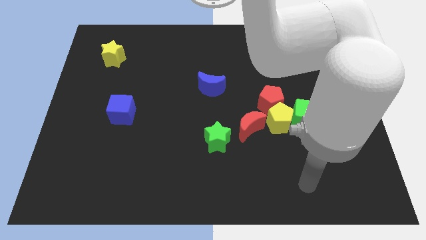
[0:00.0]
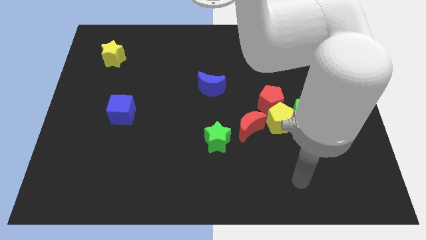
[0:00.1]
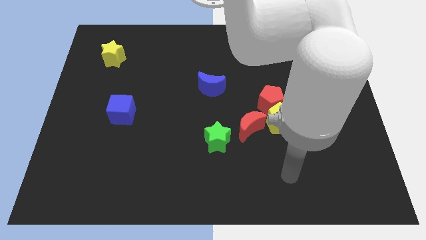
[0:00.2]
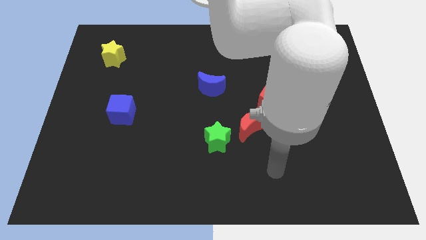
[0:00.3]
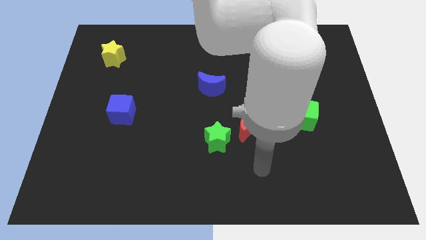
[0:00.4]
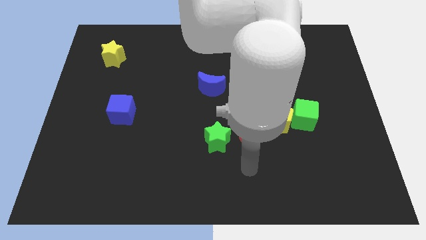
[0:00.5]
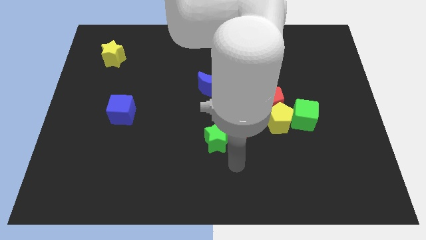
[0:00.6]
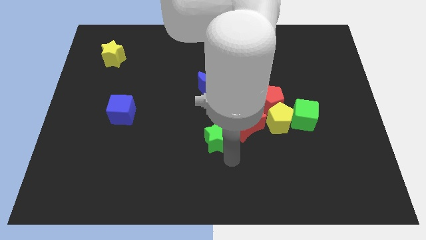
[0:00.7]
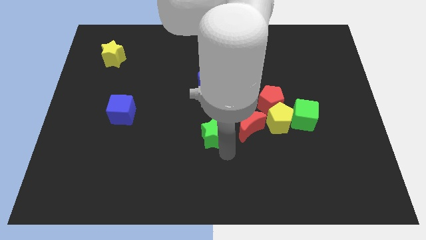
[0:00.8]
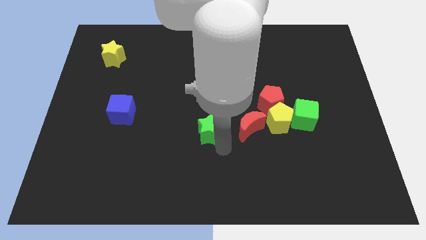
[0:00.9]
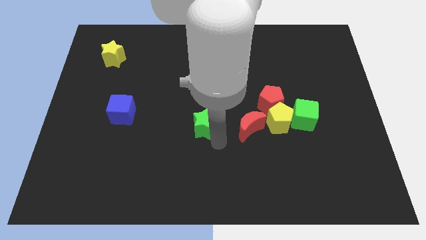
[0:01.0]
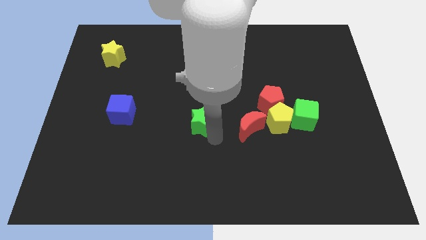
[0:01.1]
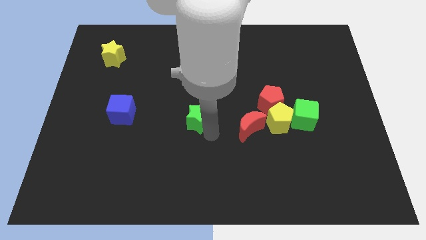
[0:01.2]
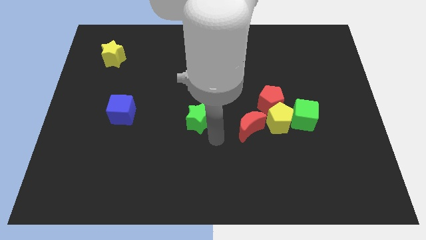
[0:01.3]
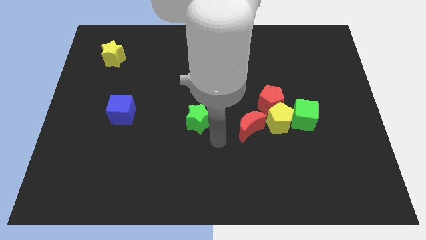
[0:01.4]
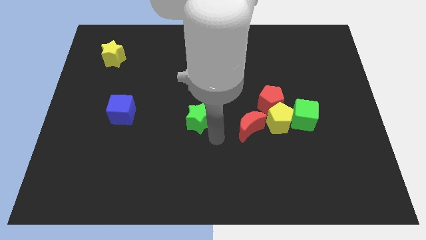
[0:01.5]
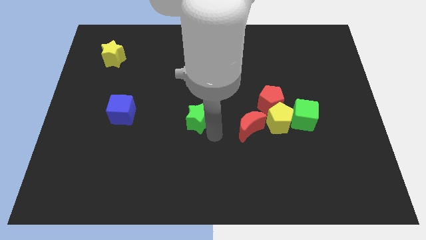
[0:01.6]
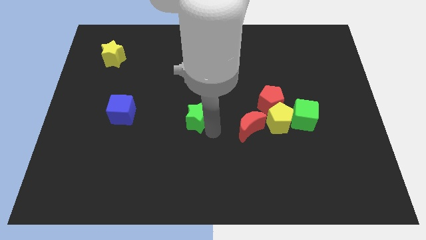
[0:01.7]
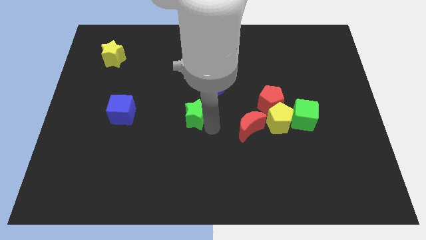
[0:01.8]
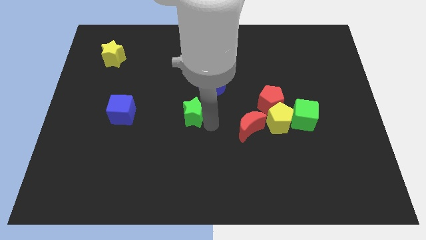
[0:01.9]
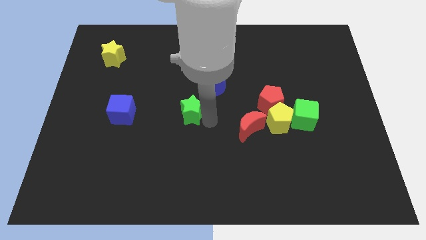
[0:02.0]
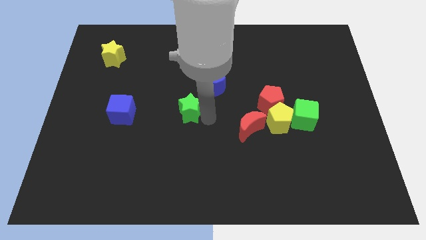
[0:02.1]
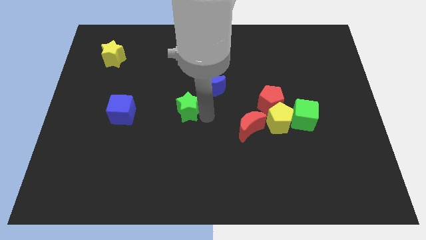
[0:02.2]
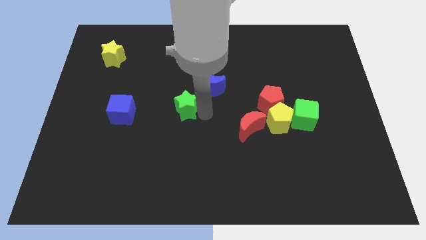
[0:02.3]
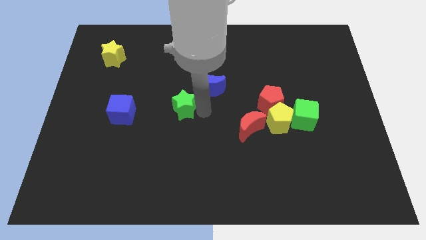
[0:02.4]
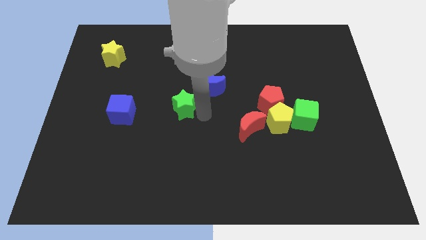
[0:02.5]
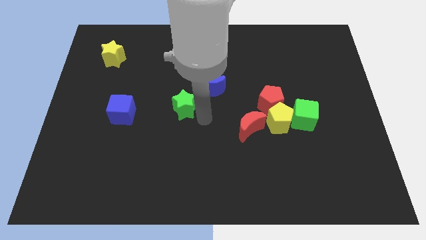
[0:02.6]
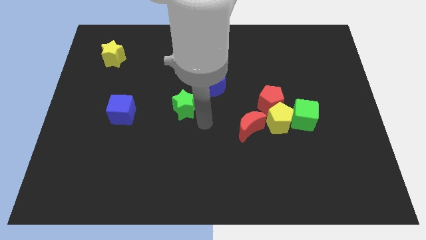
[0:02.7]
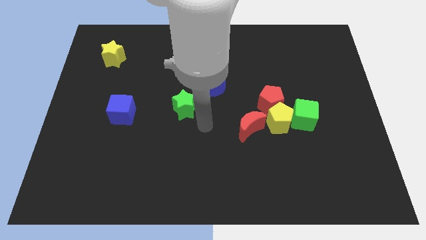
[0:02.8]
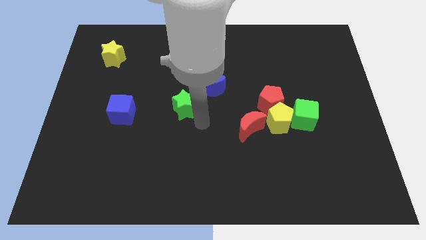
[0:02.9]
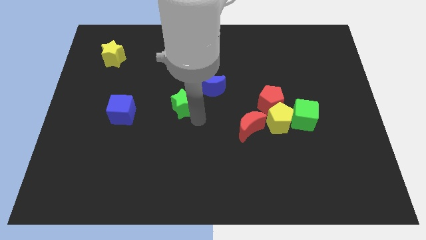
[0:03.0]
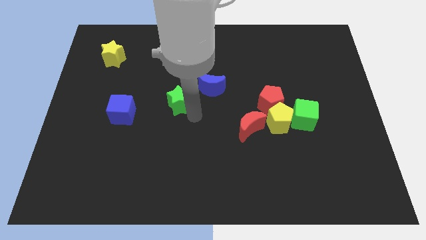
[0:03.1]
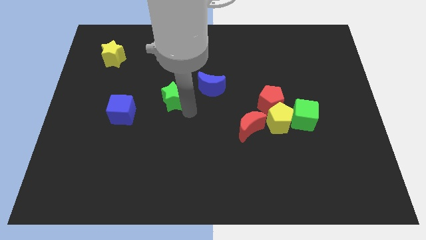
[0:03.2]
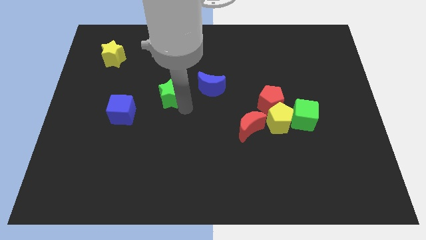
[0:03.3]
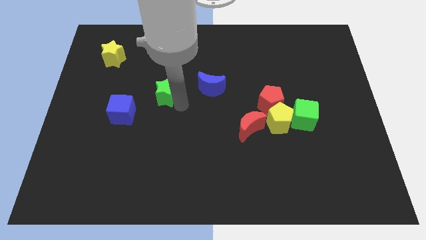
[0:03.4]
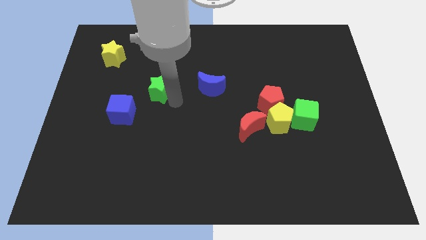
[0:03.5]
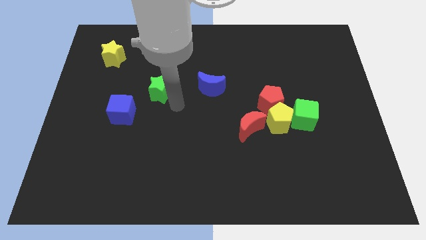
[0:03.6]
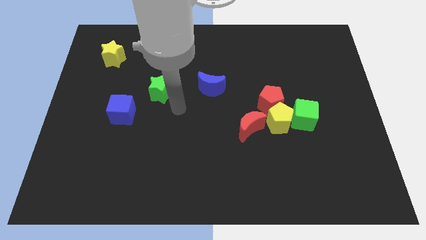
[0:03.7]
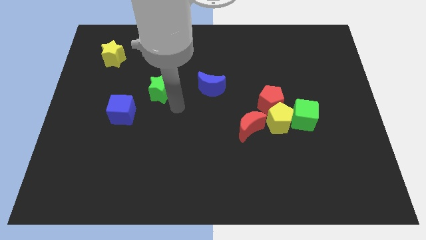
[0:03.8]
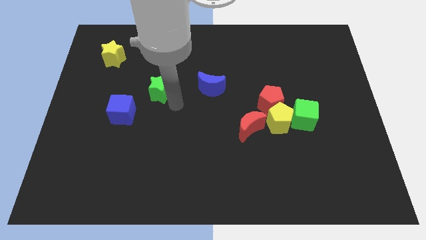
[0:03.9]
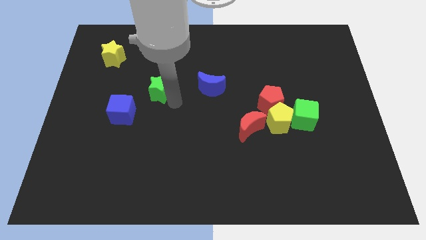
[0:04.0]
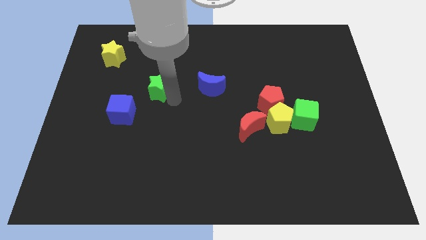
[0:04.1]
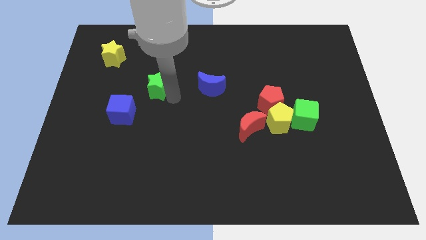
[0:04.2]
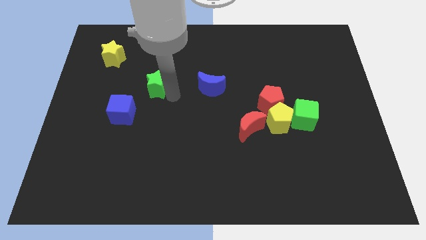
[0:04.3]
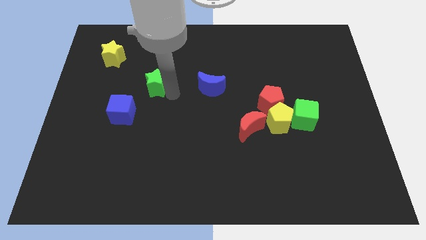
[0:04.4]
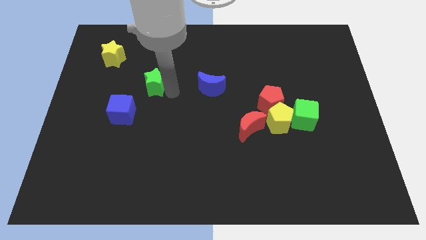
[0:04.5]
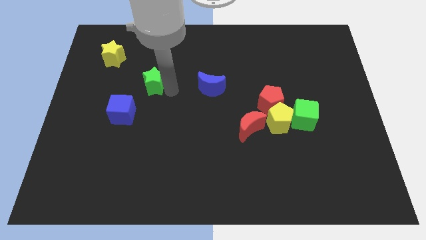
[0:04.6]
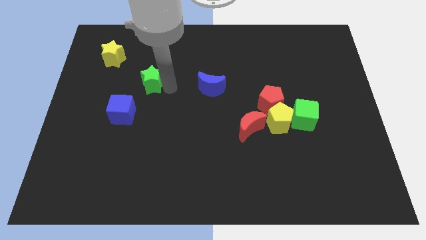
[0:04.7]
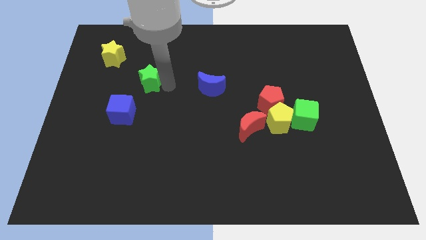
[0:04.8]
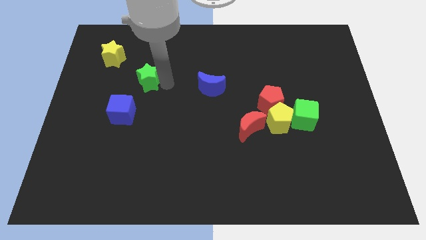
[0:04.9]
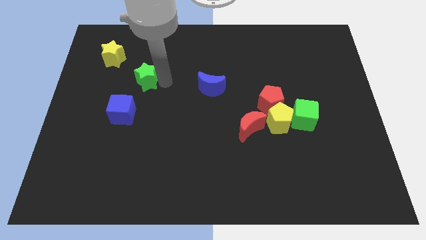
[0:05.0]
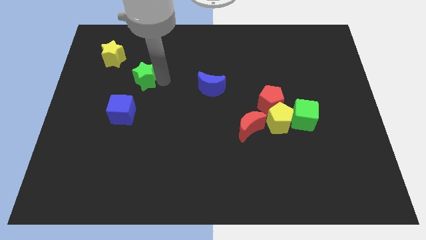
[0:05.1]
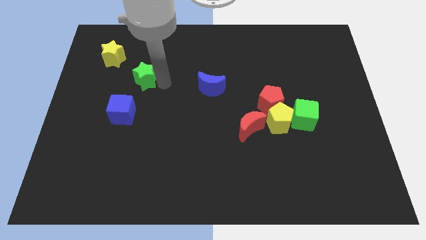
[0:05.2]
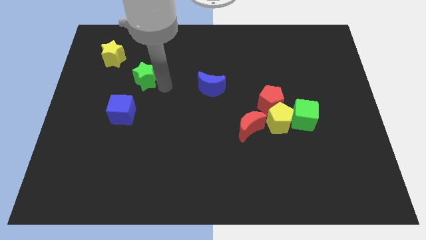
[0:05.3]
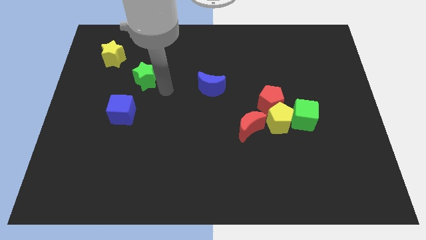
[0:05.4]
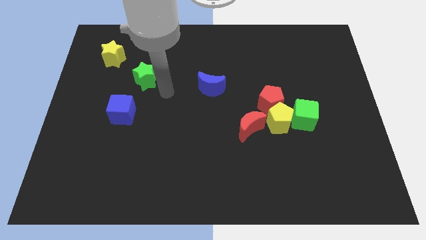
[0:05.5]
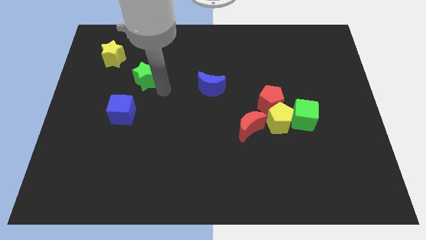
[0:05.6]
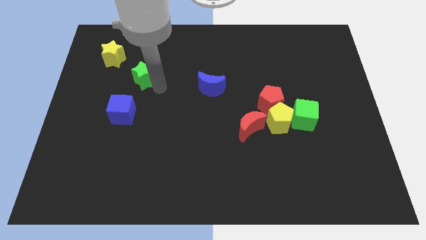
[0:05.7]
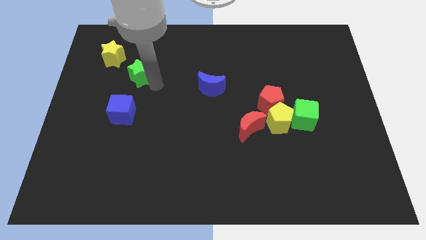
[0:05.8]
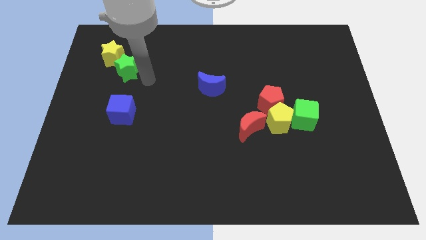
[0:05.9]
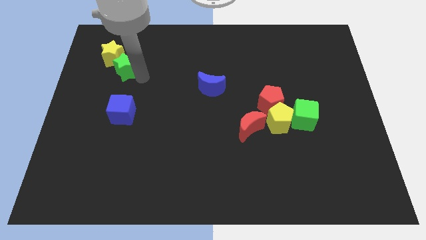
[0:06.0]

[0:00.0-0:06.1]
push the green star close to the yellow star

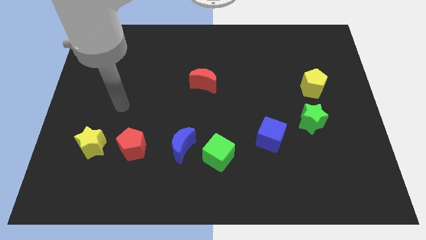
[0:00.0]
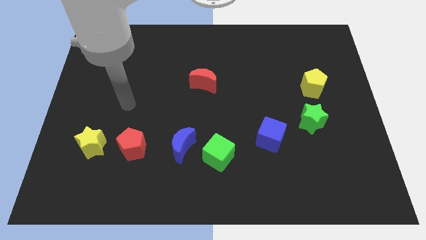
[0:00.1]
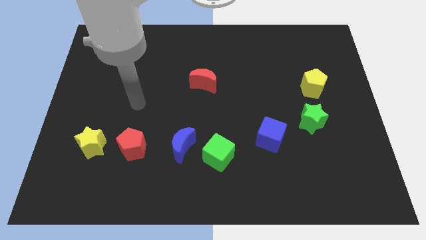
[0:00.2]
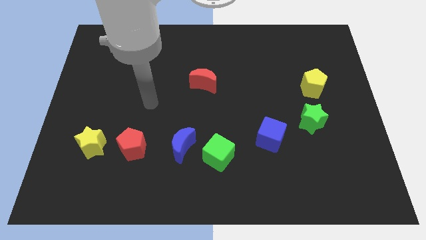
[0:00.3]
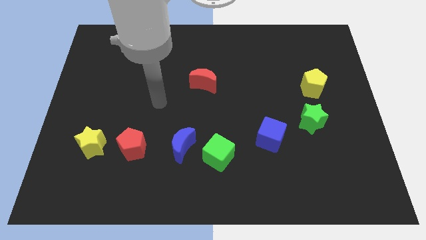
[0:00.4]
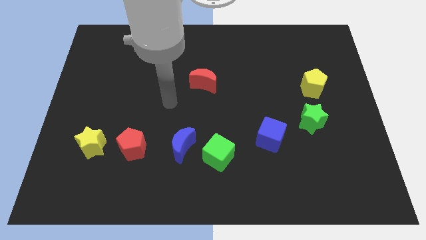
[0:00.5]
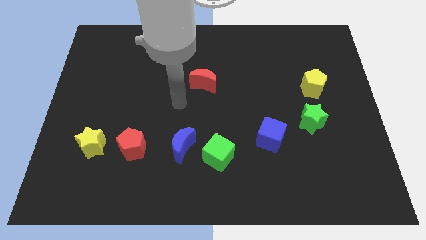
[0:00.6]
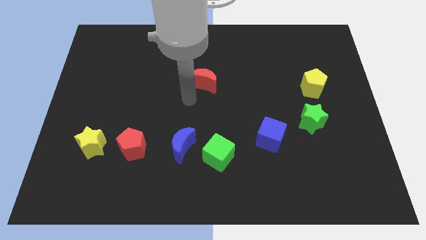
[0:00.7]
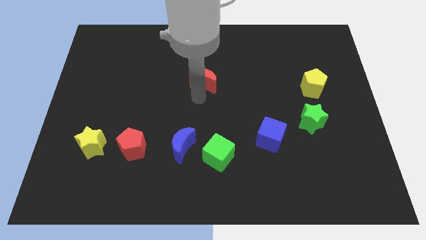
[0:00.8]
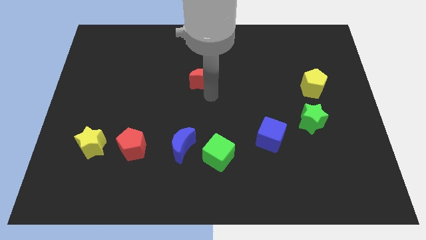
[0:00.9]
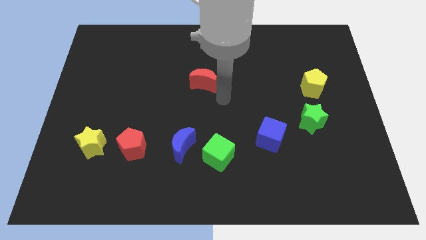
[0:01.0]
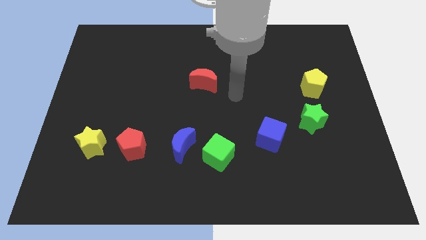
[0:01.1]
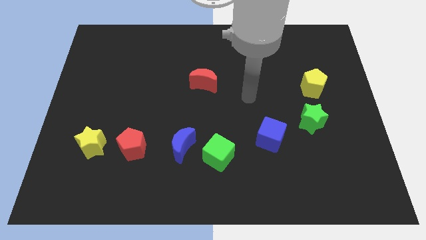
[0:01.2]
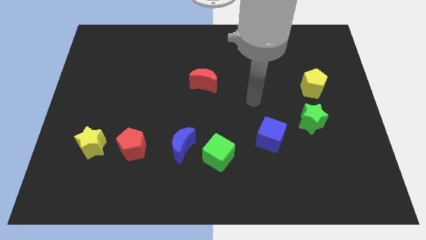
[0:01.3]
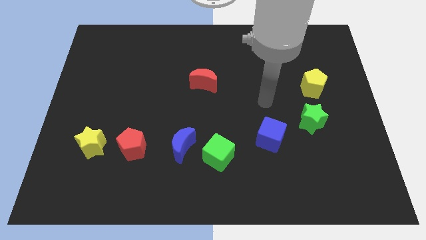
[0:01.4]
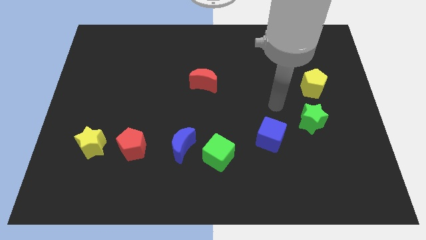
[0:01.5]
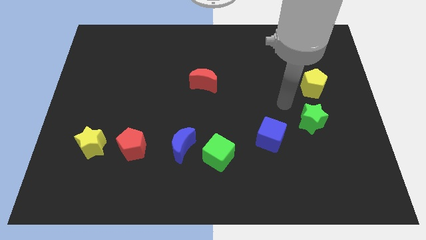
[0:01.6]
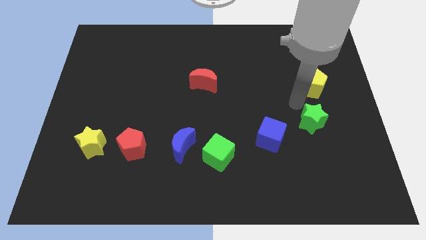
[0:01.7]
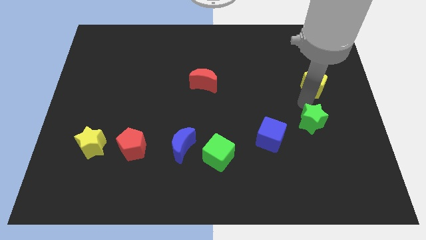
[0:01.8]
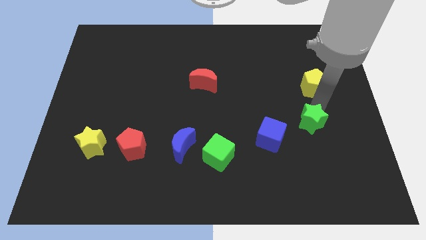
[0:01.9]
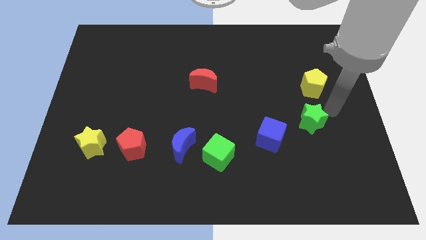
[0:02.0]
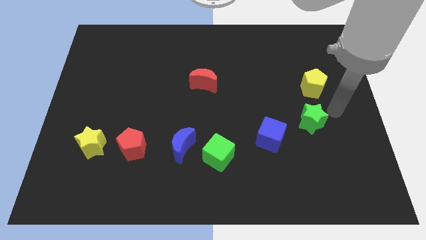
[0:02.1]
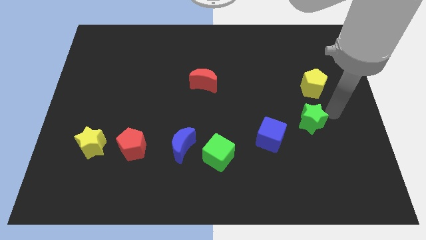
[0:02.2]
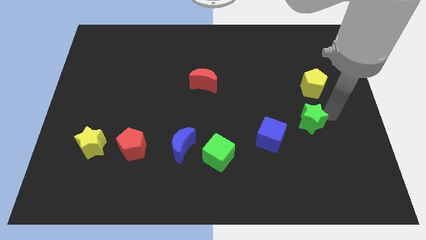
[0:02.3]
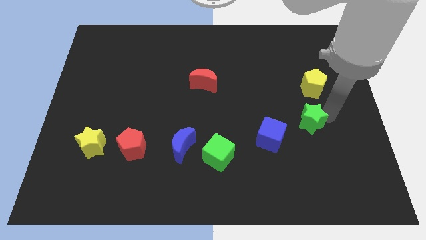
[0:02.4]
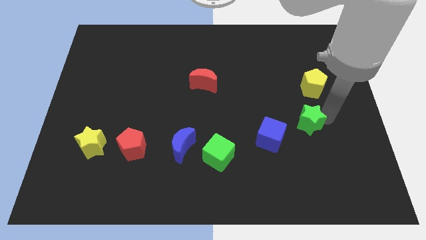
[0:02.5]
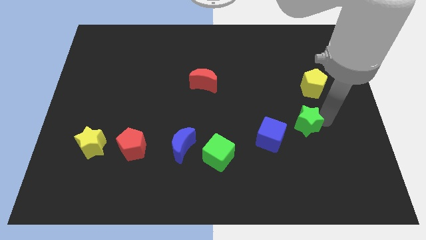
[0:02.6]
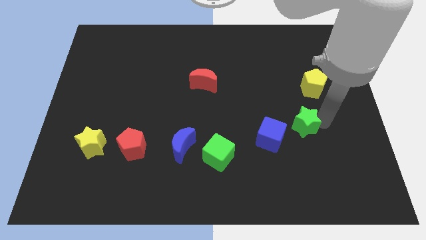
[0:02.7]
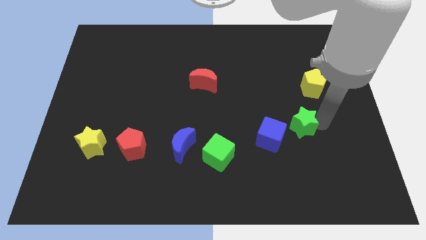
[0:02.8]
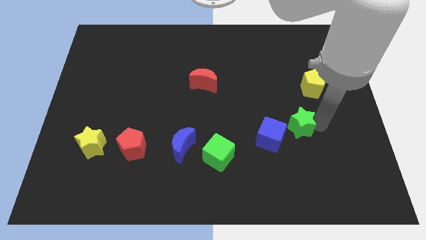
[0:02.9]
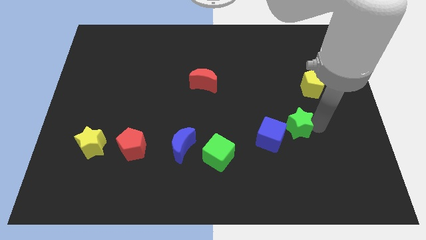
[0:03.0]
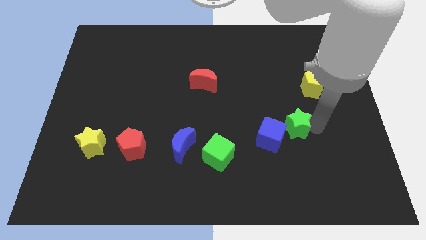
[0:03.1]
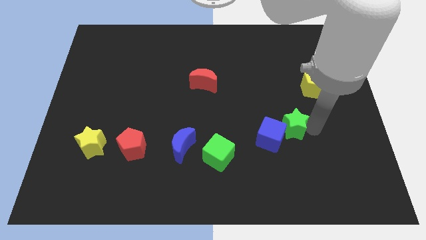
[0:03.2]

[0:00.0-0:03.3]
move the green star to the blue cube
